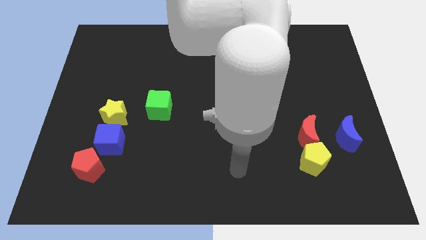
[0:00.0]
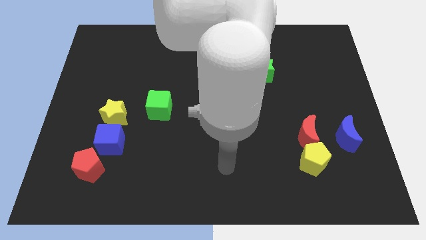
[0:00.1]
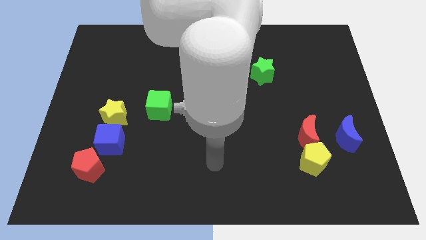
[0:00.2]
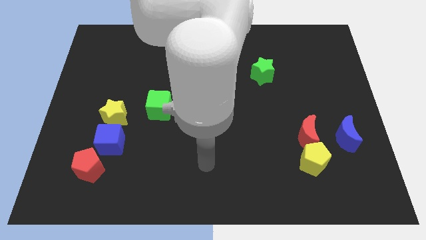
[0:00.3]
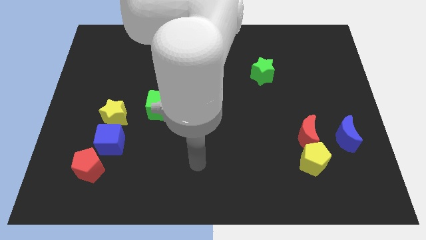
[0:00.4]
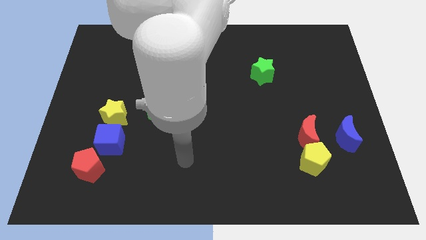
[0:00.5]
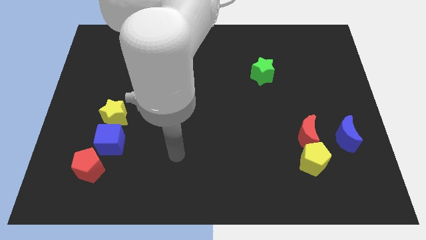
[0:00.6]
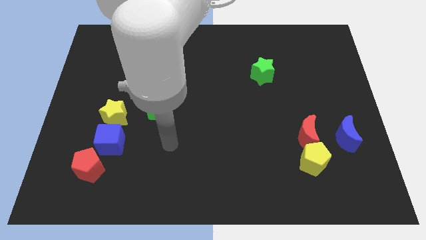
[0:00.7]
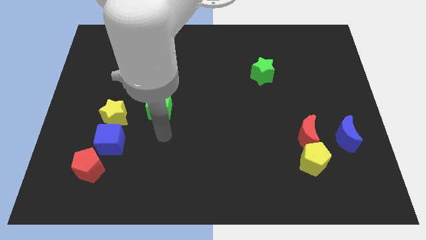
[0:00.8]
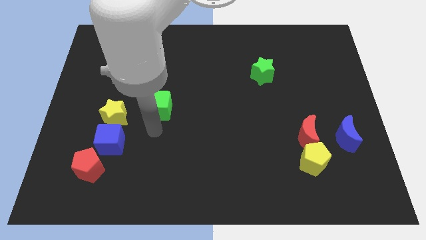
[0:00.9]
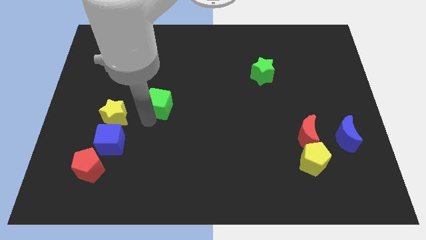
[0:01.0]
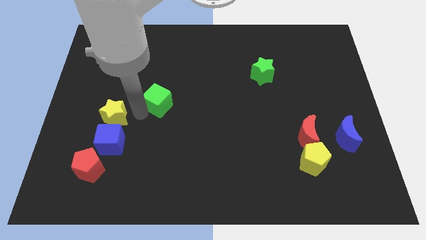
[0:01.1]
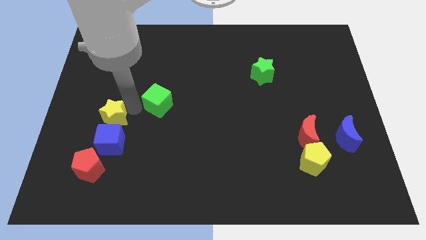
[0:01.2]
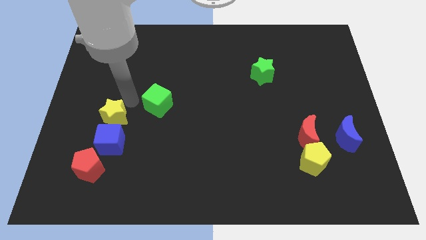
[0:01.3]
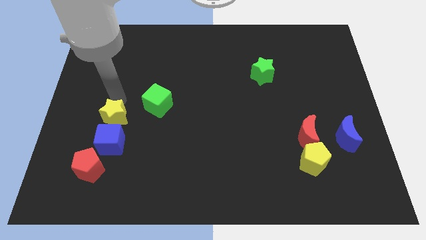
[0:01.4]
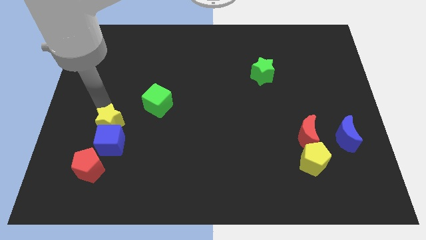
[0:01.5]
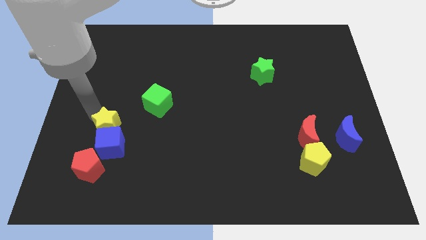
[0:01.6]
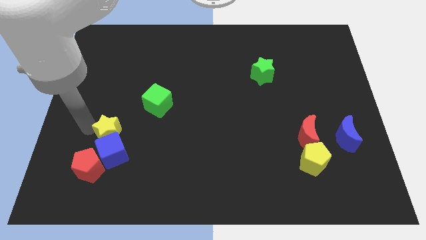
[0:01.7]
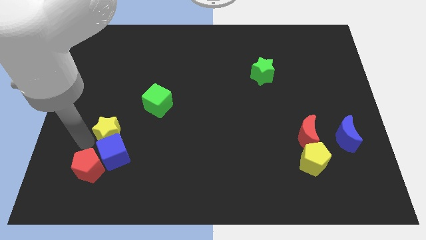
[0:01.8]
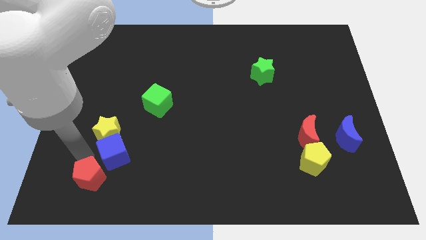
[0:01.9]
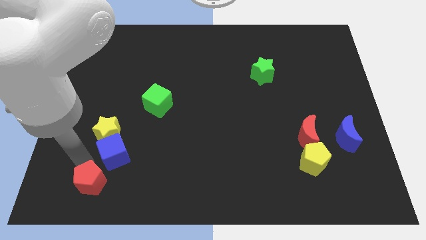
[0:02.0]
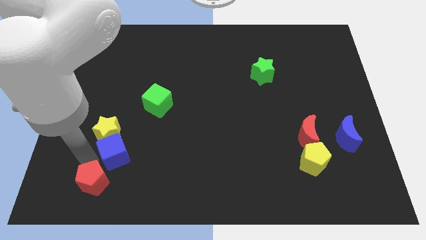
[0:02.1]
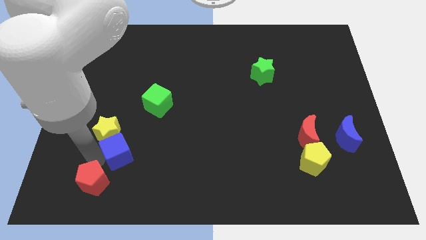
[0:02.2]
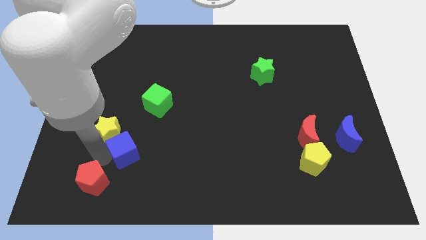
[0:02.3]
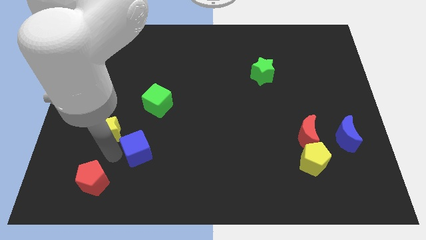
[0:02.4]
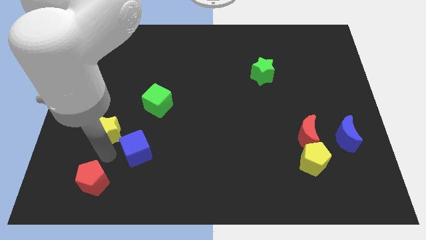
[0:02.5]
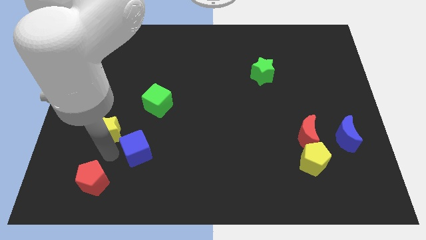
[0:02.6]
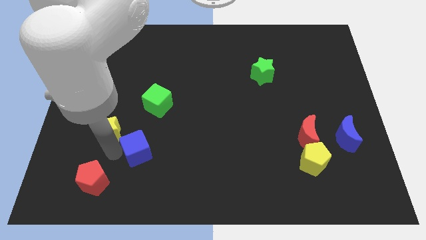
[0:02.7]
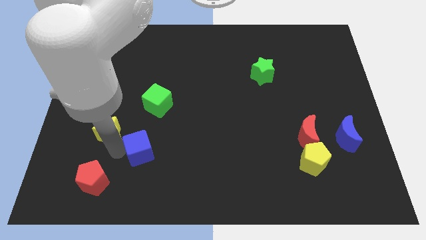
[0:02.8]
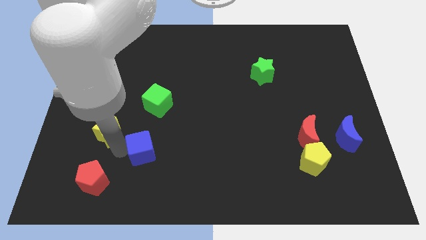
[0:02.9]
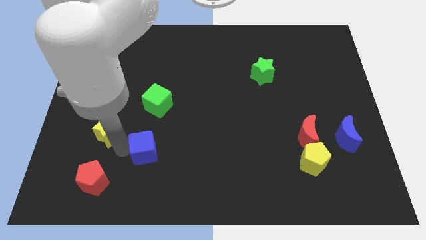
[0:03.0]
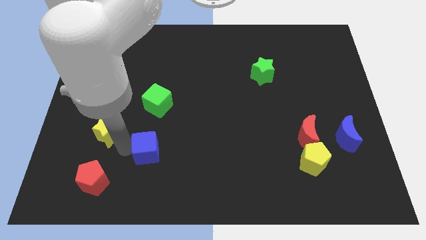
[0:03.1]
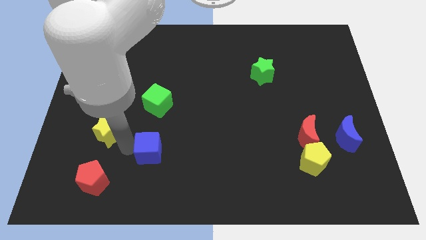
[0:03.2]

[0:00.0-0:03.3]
pull the blue cube apart from the yellow star and red pentagon

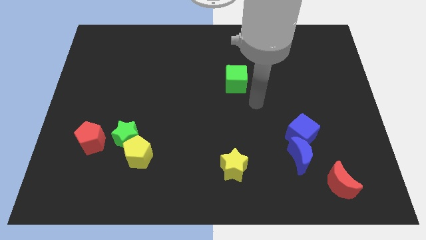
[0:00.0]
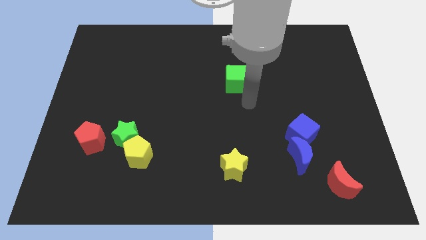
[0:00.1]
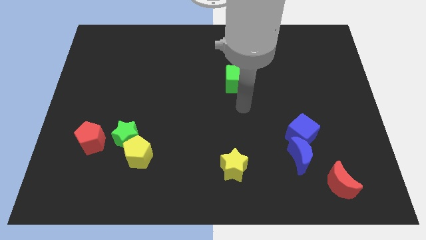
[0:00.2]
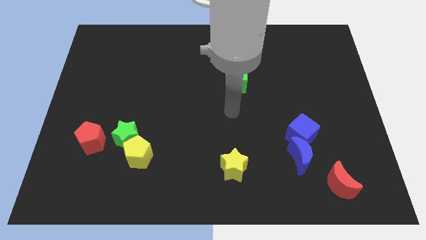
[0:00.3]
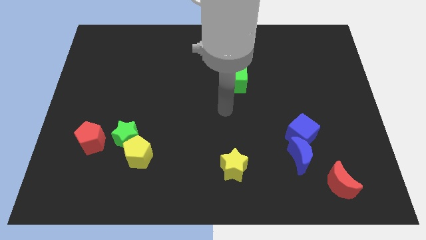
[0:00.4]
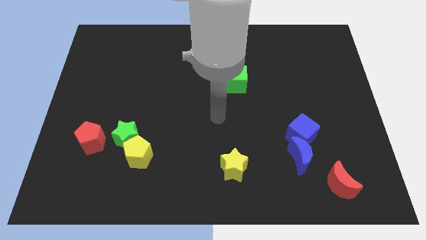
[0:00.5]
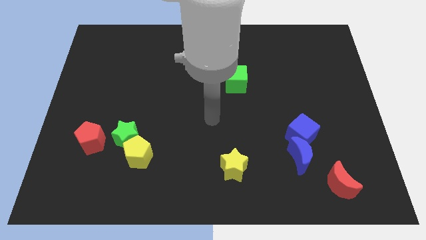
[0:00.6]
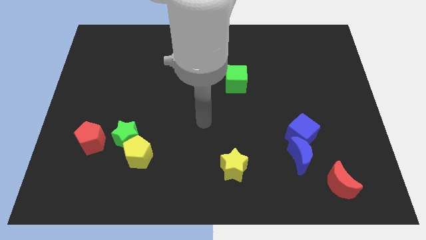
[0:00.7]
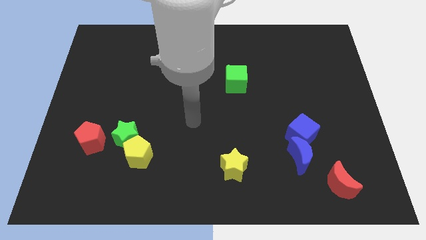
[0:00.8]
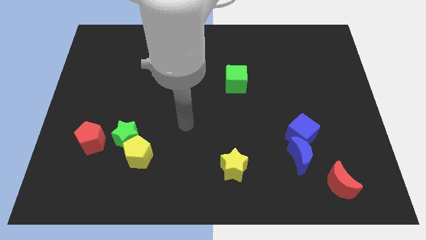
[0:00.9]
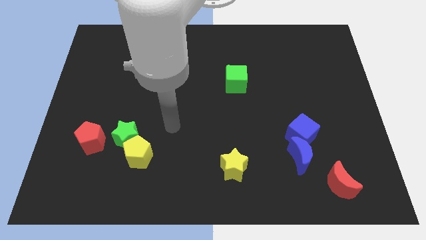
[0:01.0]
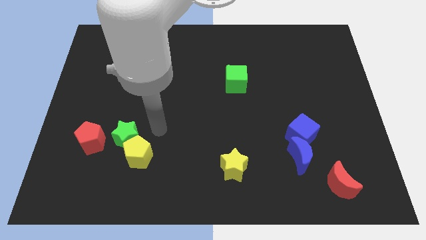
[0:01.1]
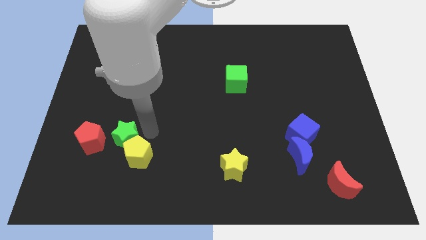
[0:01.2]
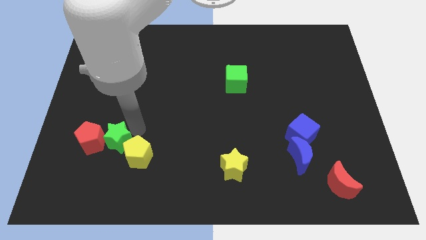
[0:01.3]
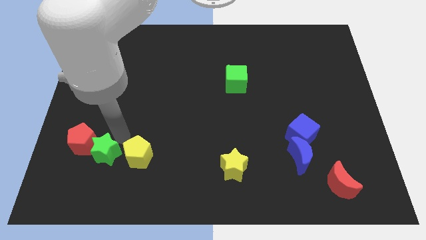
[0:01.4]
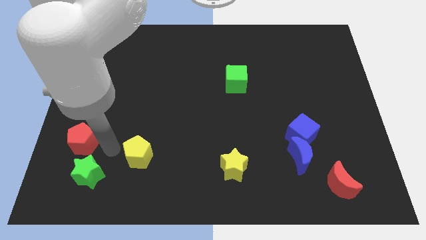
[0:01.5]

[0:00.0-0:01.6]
move the yellow pentagon away from the green star

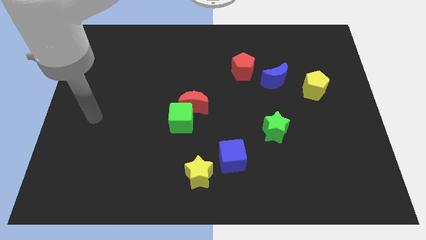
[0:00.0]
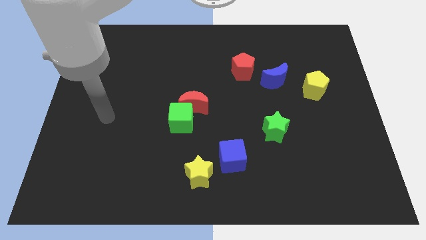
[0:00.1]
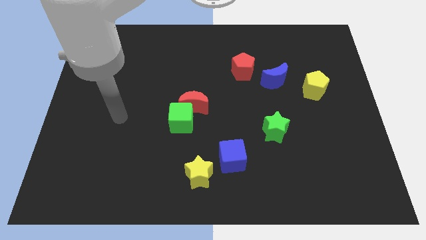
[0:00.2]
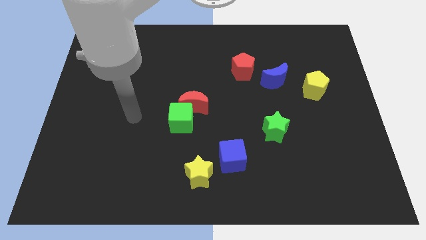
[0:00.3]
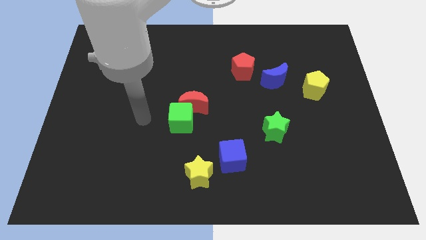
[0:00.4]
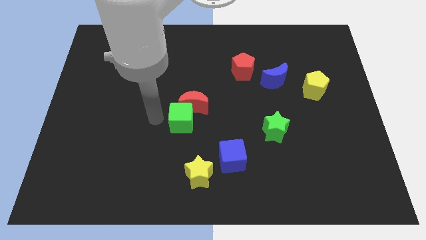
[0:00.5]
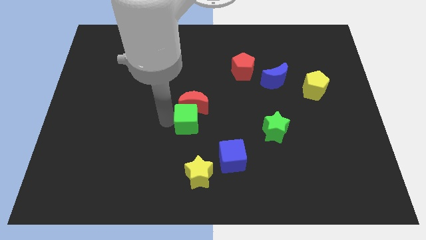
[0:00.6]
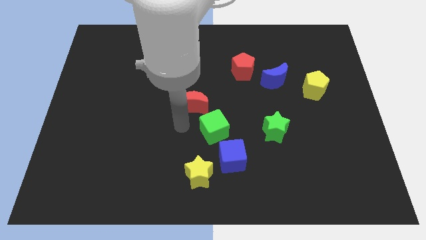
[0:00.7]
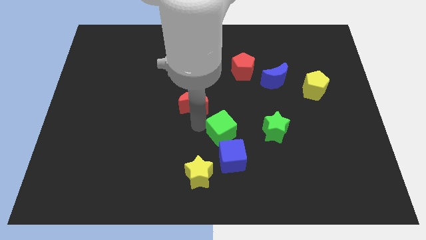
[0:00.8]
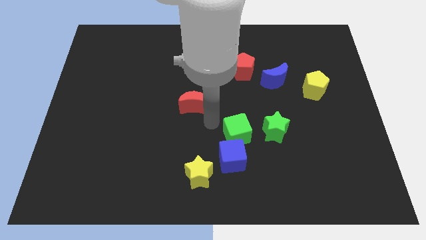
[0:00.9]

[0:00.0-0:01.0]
pull the red moon apart from the green cube

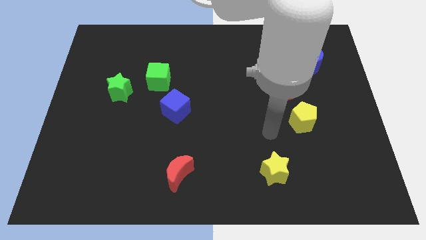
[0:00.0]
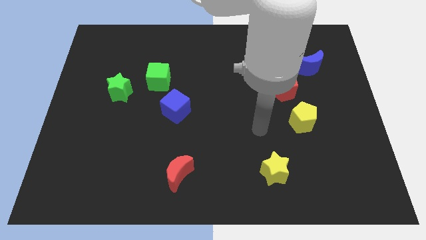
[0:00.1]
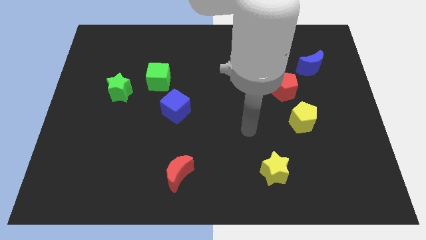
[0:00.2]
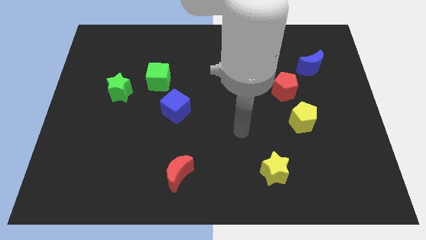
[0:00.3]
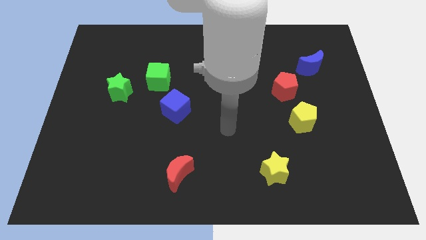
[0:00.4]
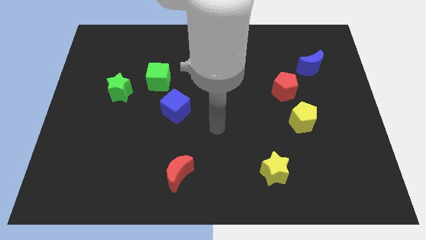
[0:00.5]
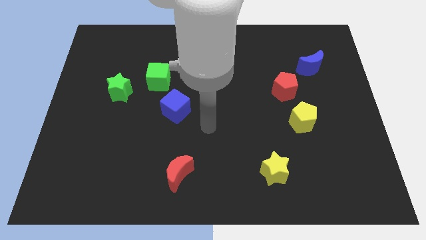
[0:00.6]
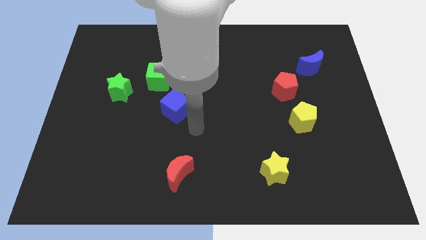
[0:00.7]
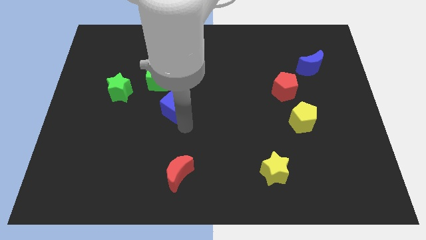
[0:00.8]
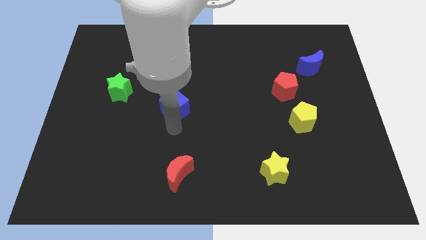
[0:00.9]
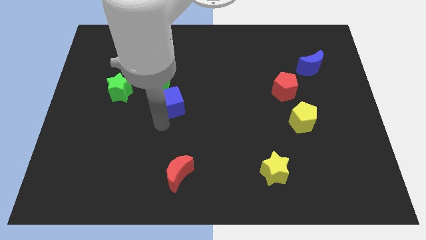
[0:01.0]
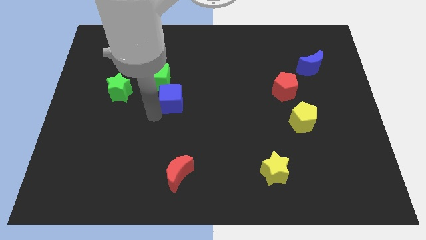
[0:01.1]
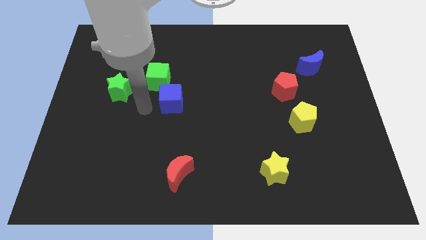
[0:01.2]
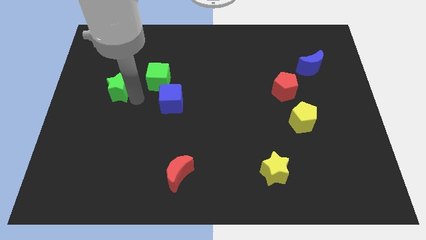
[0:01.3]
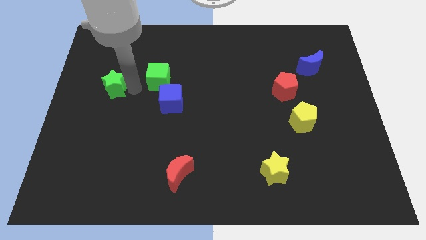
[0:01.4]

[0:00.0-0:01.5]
pull the green cube apart from the green star

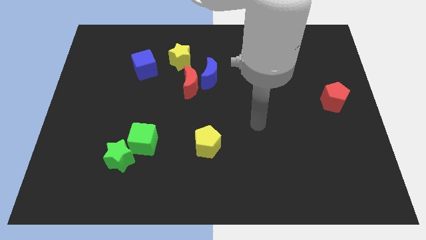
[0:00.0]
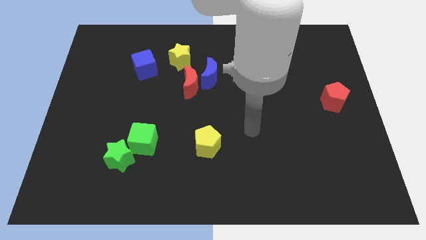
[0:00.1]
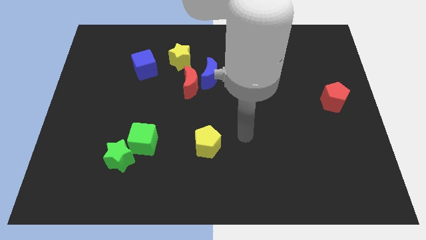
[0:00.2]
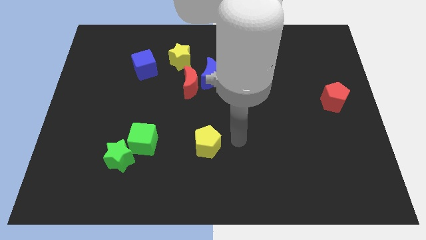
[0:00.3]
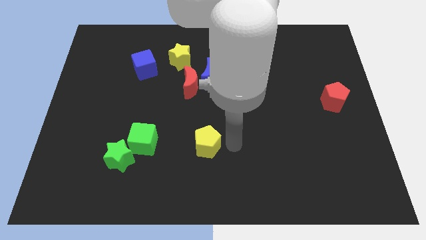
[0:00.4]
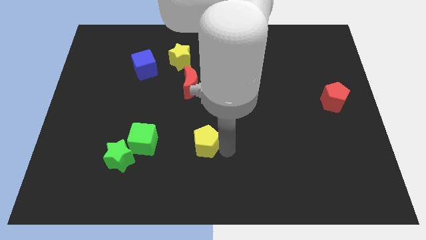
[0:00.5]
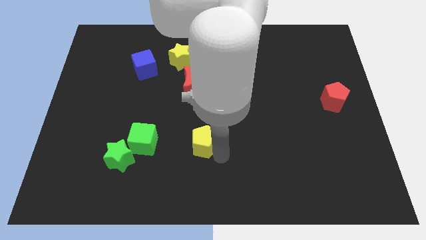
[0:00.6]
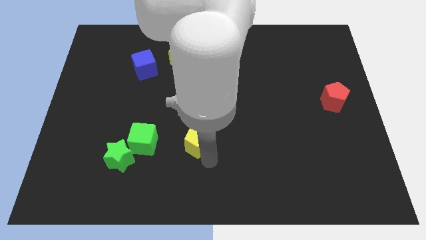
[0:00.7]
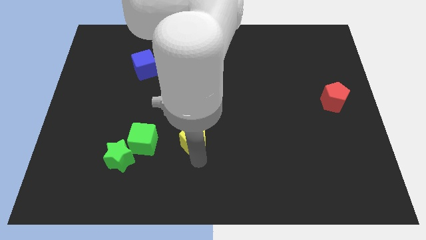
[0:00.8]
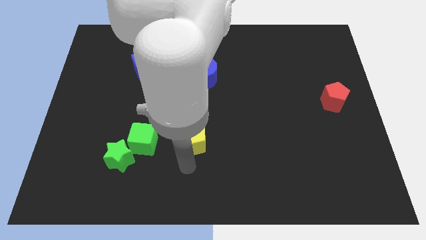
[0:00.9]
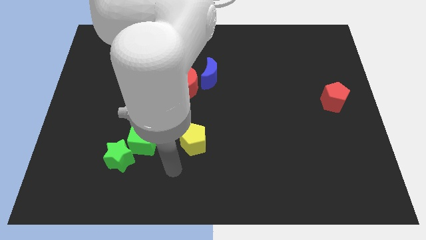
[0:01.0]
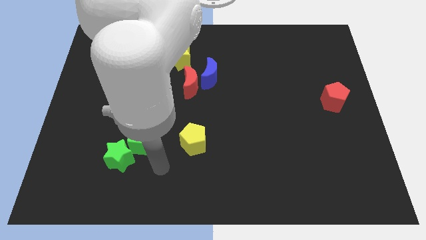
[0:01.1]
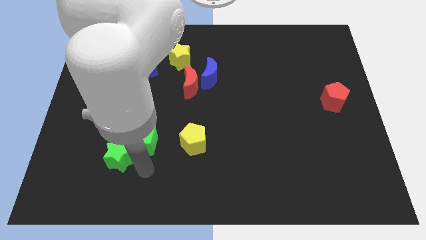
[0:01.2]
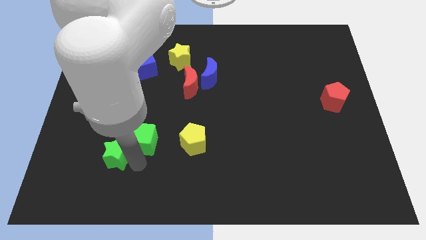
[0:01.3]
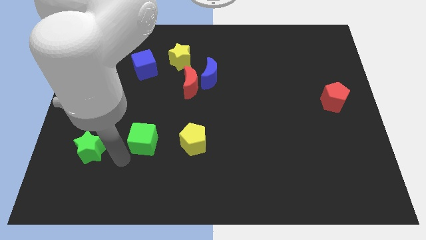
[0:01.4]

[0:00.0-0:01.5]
separate the green cube from the green star

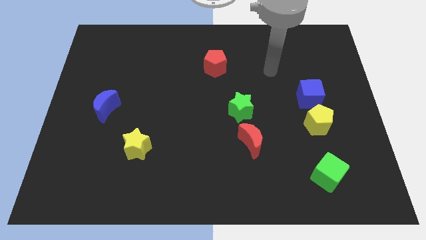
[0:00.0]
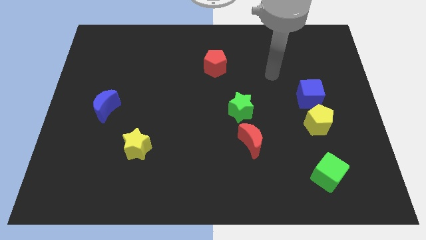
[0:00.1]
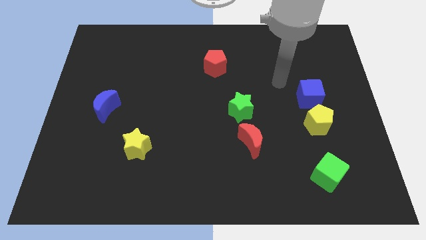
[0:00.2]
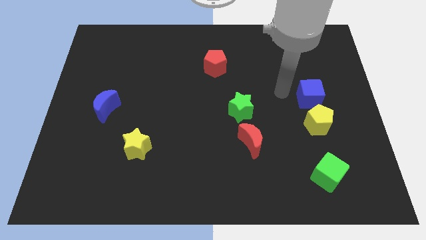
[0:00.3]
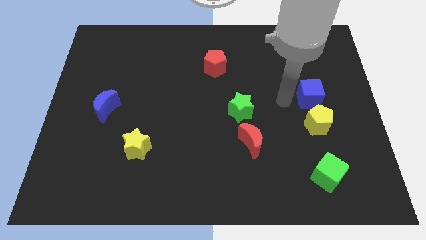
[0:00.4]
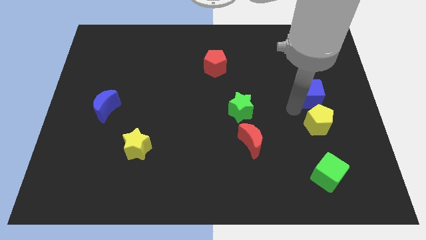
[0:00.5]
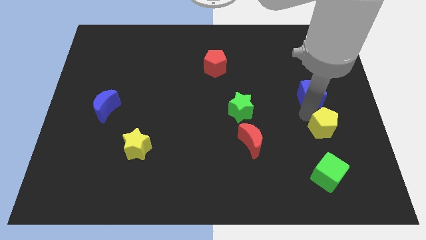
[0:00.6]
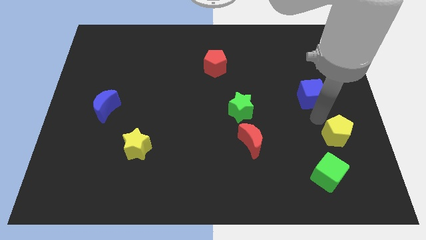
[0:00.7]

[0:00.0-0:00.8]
move the blue cube away from the yellow pentagon
